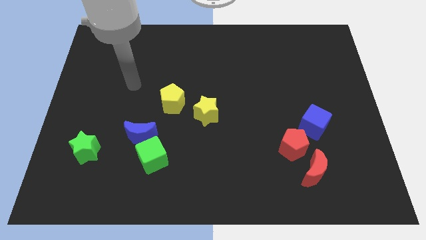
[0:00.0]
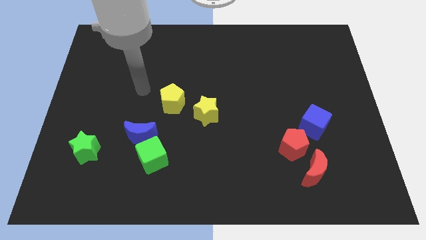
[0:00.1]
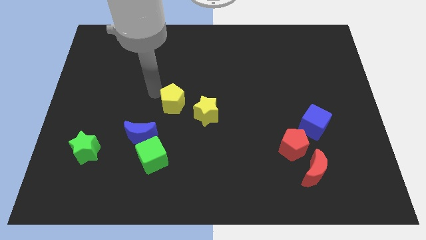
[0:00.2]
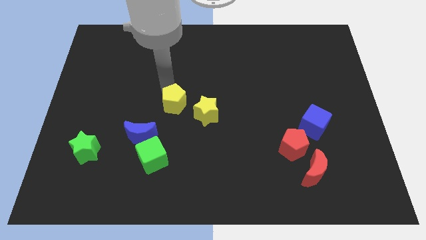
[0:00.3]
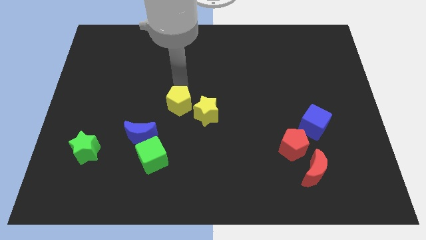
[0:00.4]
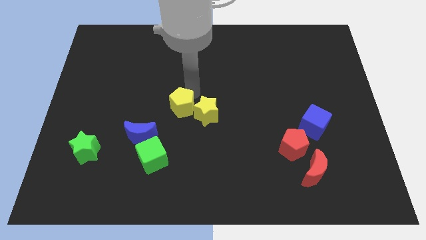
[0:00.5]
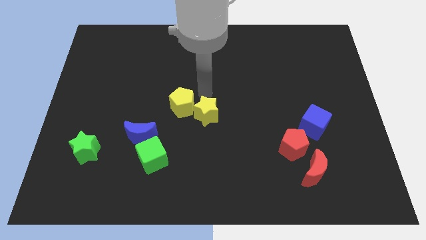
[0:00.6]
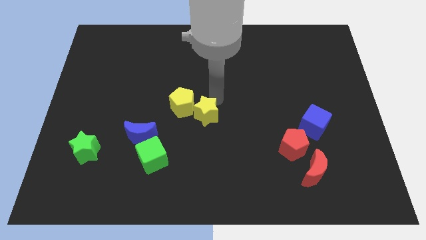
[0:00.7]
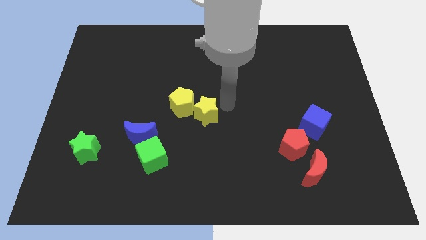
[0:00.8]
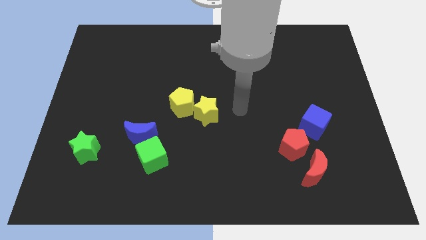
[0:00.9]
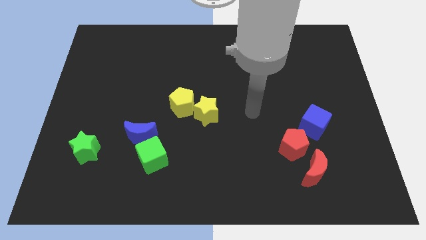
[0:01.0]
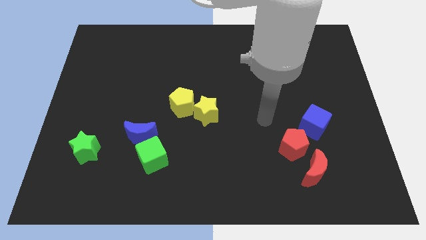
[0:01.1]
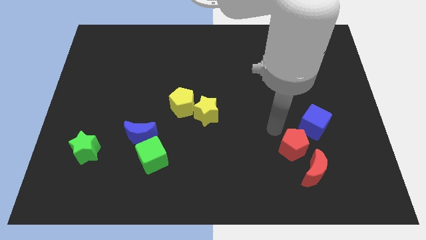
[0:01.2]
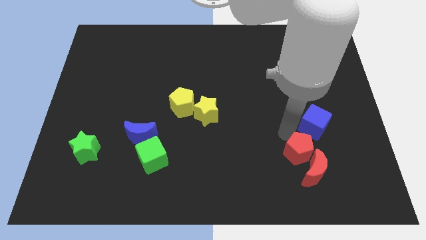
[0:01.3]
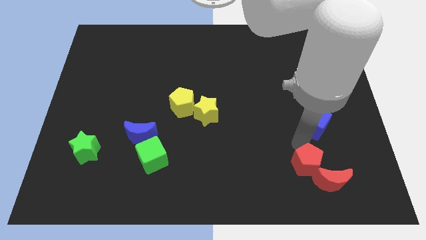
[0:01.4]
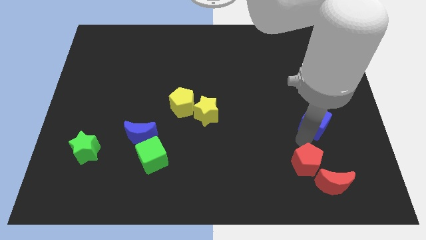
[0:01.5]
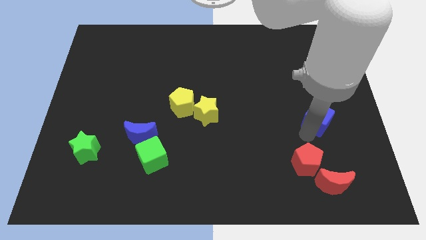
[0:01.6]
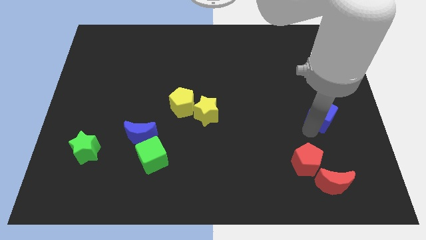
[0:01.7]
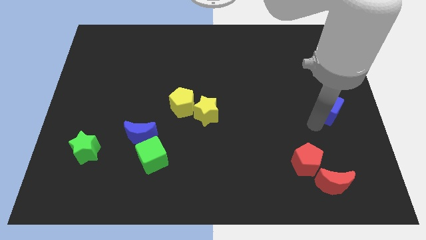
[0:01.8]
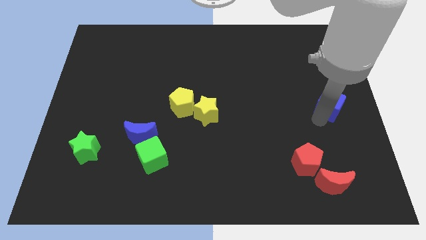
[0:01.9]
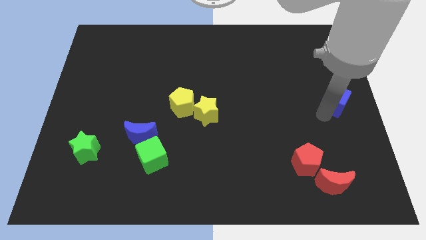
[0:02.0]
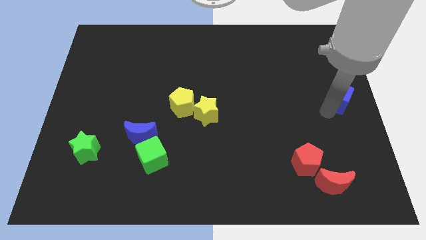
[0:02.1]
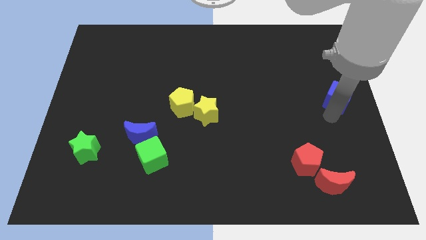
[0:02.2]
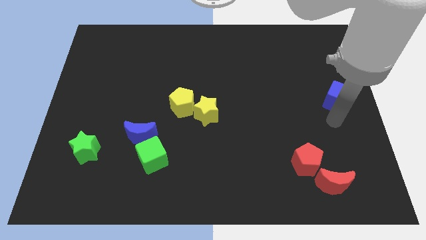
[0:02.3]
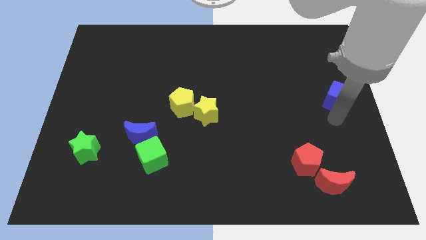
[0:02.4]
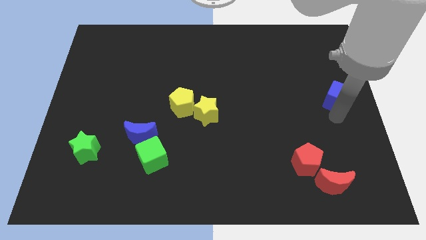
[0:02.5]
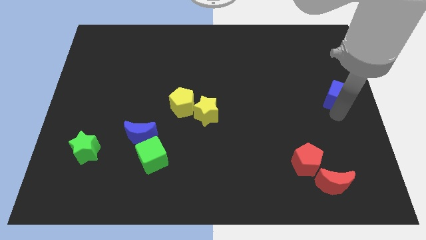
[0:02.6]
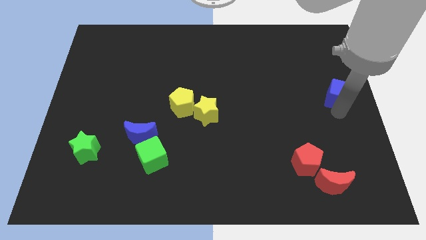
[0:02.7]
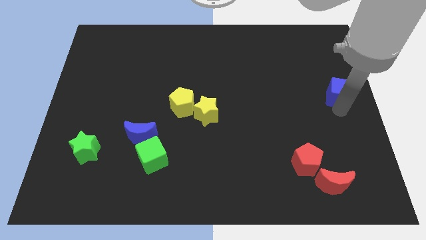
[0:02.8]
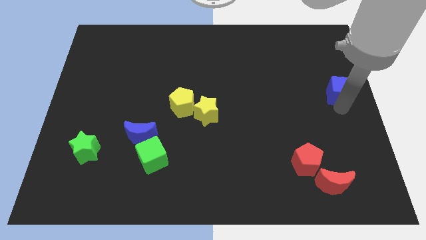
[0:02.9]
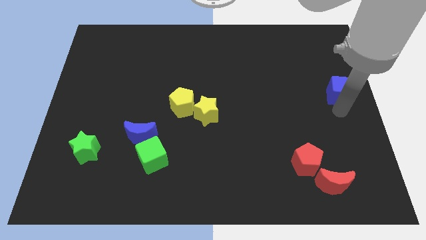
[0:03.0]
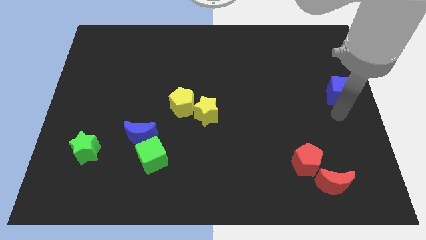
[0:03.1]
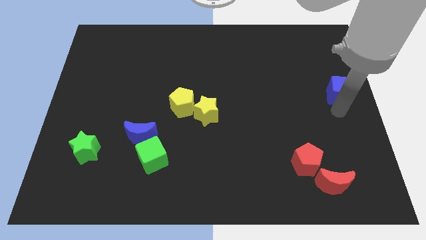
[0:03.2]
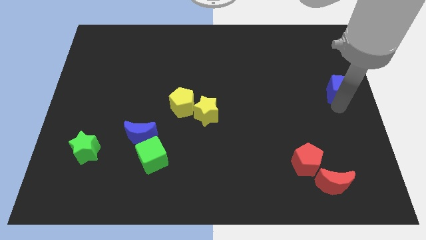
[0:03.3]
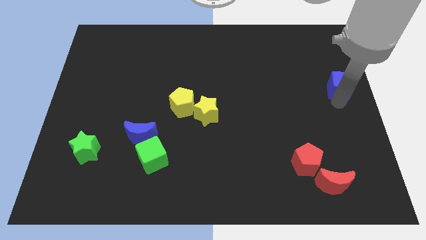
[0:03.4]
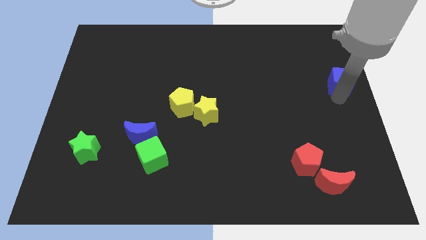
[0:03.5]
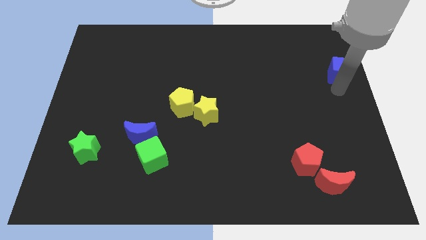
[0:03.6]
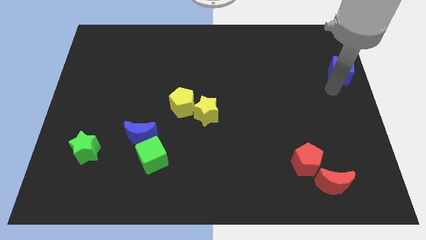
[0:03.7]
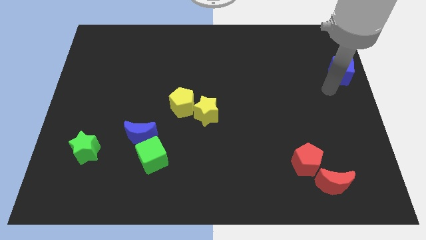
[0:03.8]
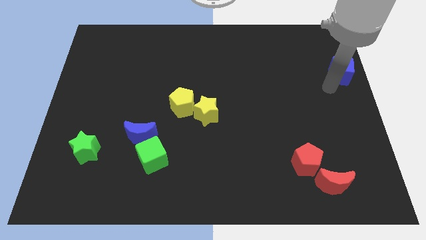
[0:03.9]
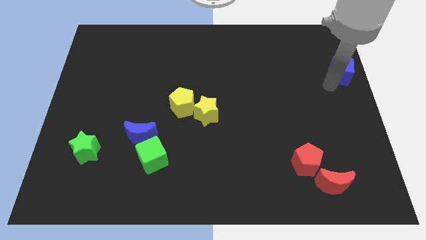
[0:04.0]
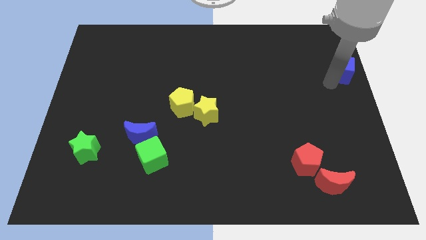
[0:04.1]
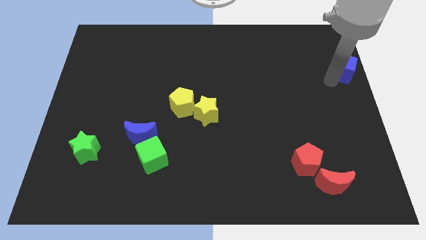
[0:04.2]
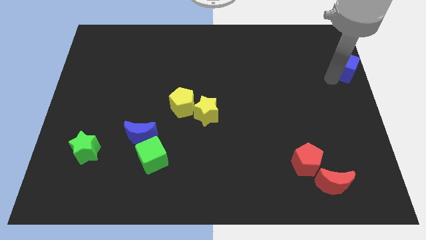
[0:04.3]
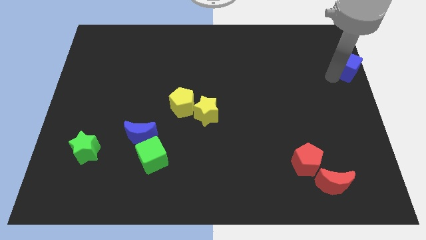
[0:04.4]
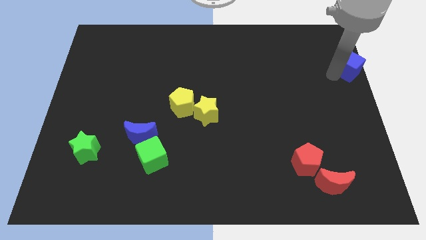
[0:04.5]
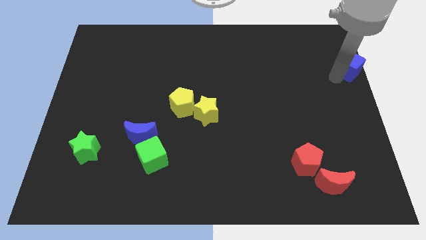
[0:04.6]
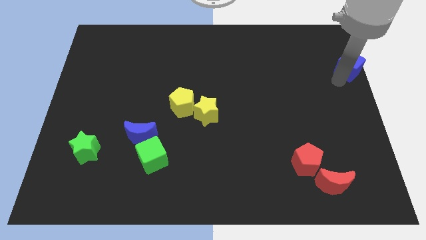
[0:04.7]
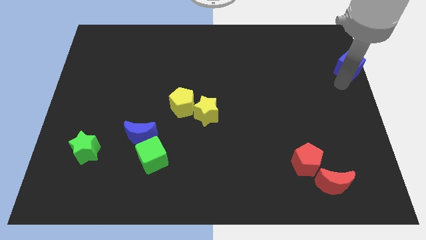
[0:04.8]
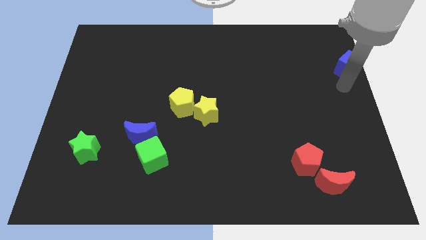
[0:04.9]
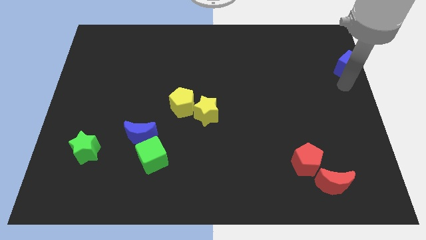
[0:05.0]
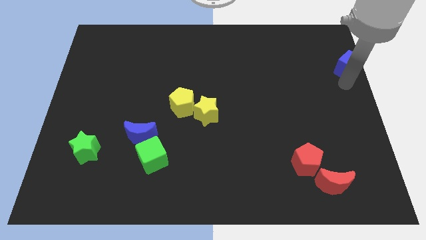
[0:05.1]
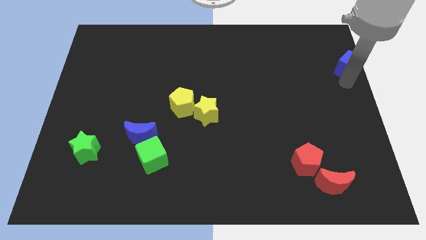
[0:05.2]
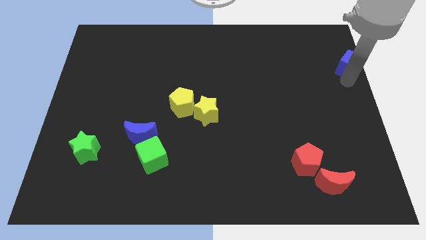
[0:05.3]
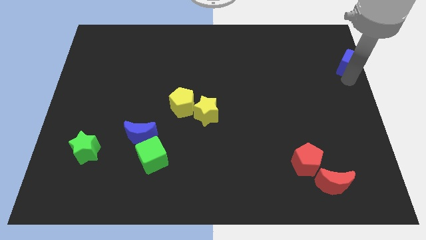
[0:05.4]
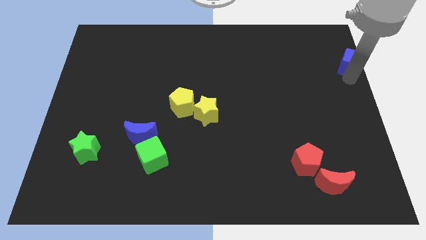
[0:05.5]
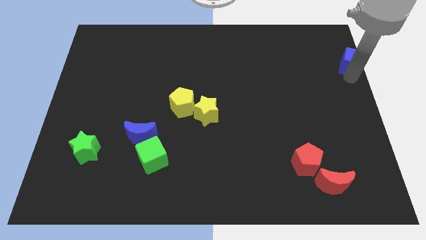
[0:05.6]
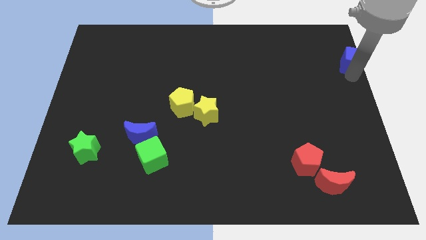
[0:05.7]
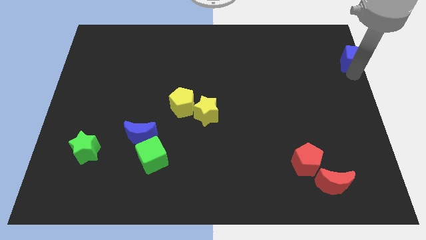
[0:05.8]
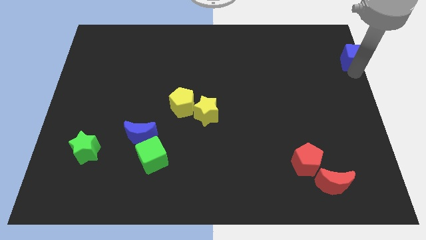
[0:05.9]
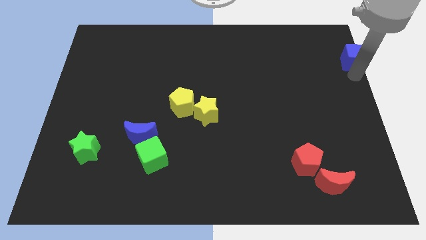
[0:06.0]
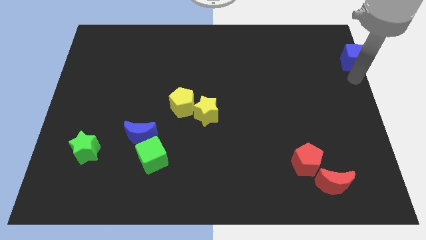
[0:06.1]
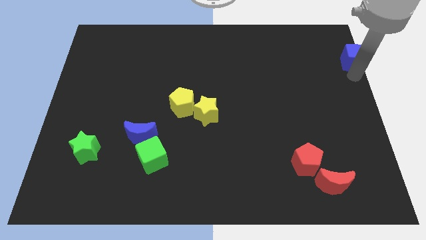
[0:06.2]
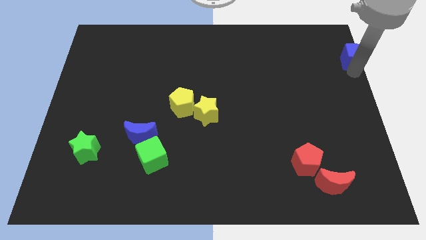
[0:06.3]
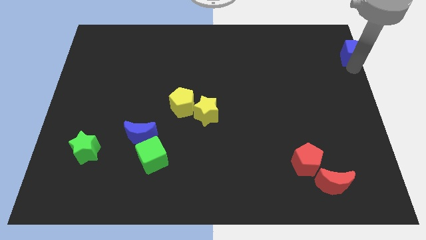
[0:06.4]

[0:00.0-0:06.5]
slide the blue cube to the top right corner

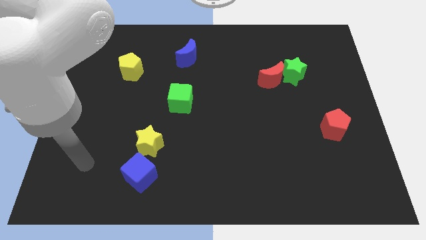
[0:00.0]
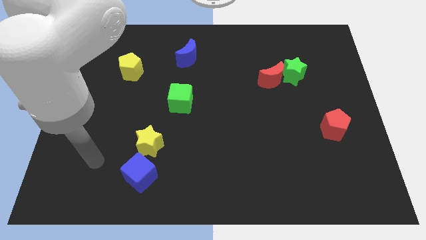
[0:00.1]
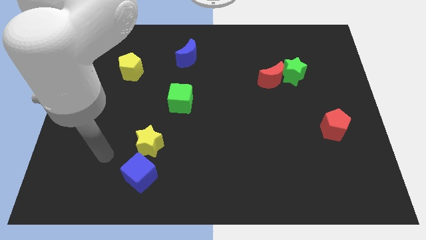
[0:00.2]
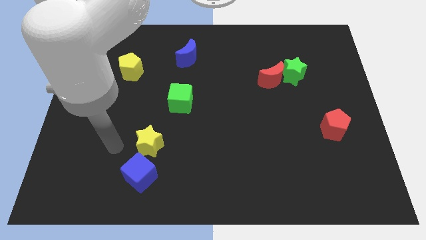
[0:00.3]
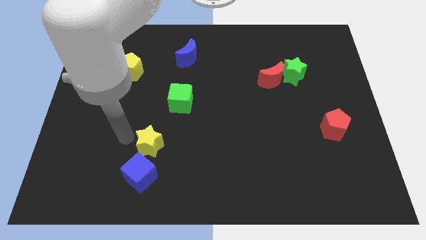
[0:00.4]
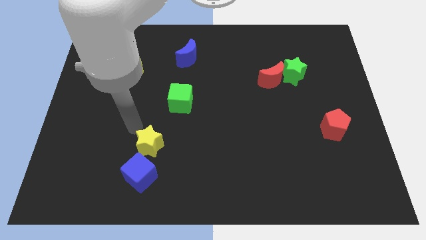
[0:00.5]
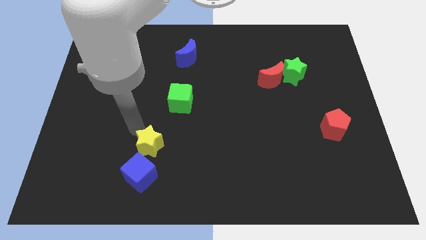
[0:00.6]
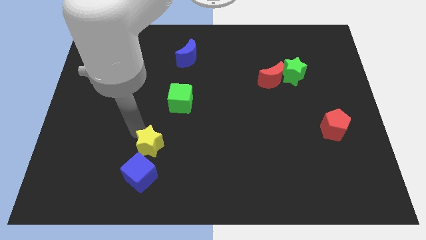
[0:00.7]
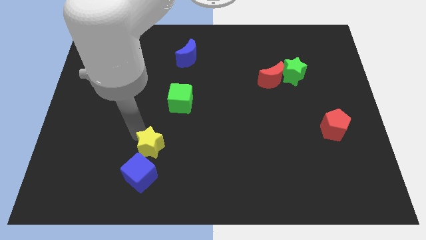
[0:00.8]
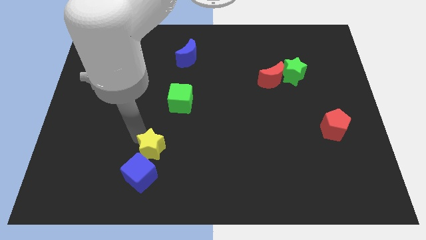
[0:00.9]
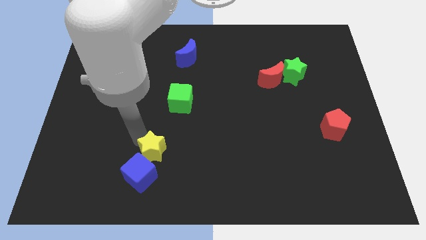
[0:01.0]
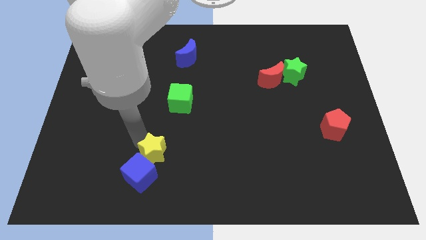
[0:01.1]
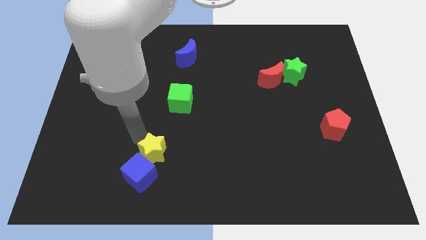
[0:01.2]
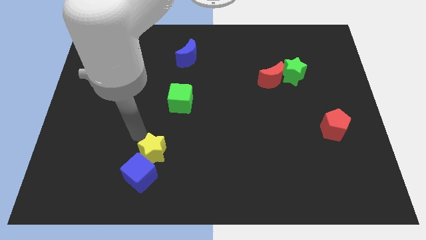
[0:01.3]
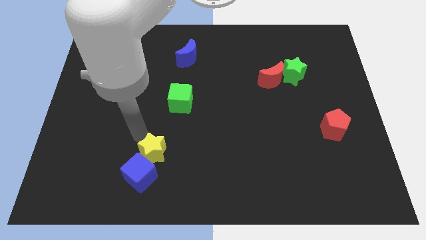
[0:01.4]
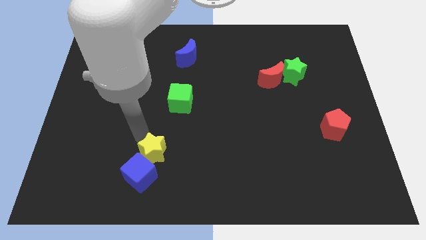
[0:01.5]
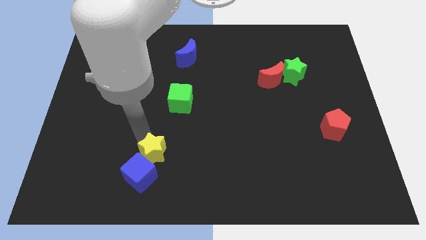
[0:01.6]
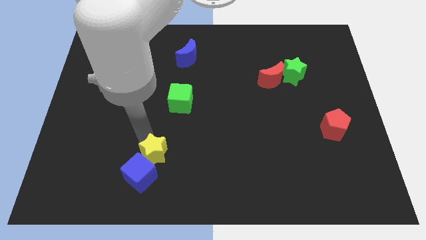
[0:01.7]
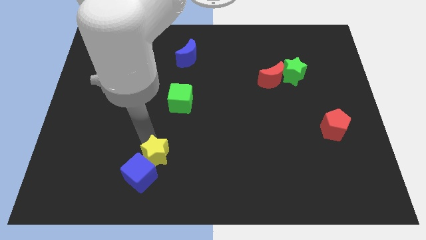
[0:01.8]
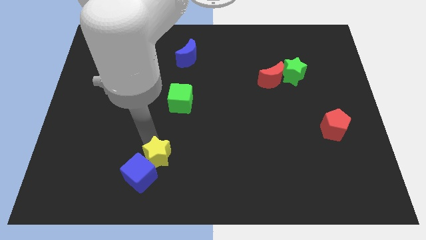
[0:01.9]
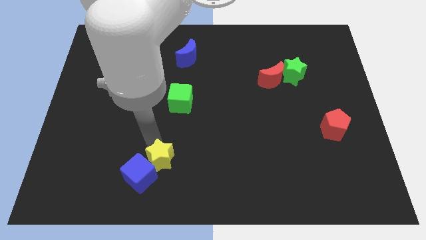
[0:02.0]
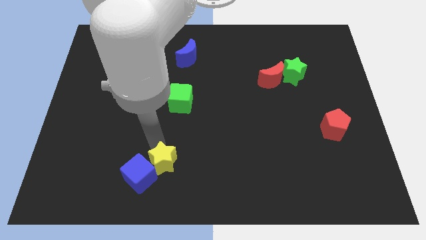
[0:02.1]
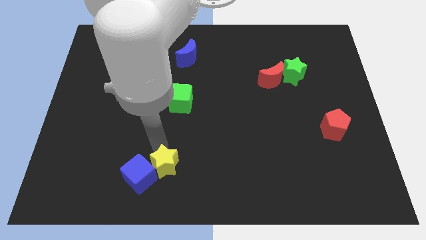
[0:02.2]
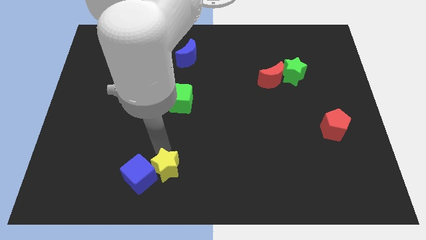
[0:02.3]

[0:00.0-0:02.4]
move the yellow star to the bottom
